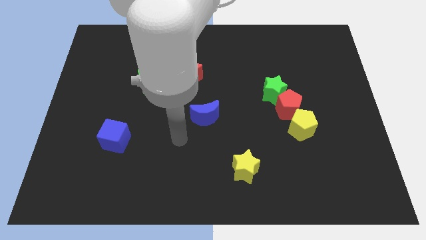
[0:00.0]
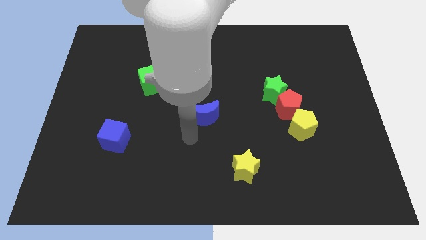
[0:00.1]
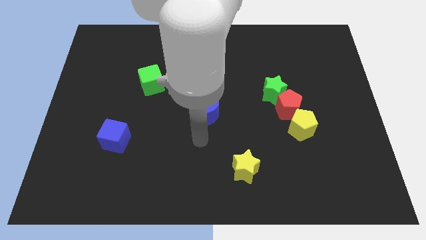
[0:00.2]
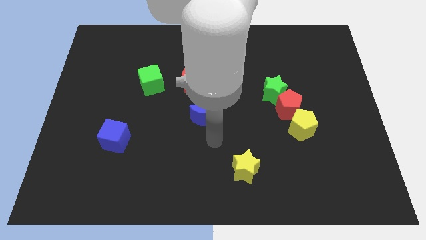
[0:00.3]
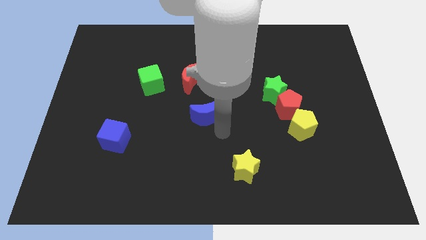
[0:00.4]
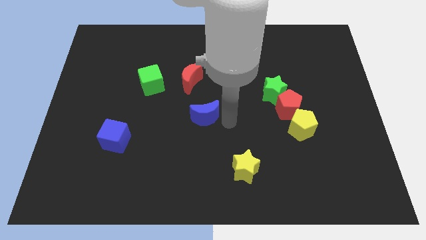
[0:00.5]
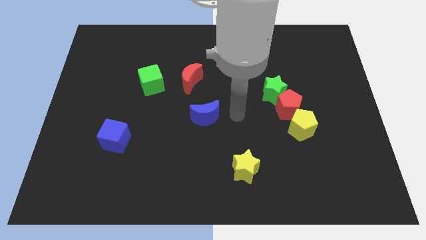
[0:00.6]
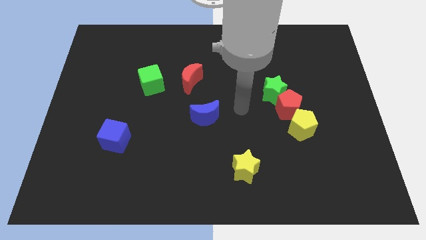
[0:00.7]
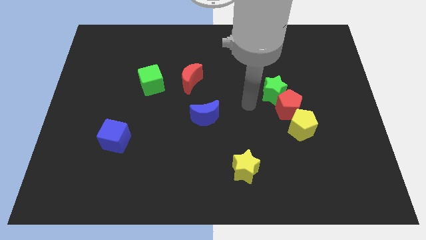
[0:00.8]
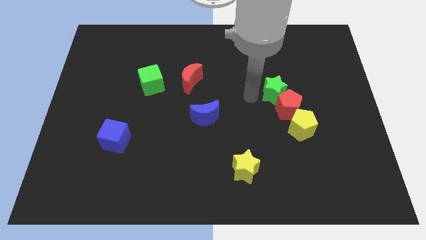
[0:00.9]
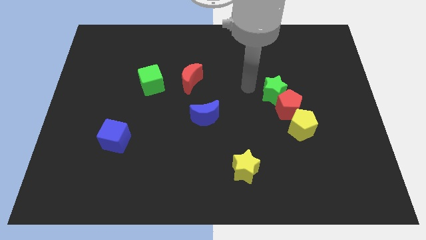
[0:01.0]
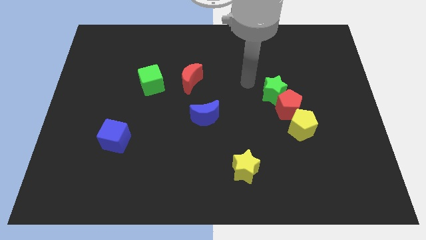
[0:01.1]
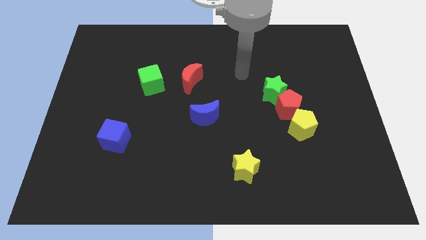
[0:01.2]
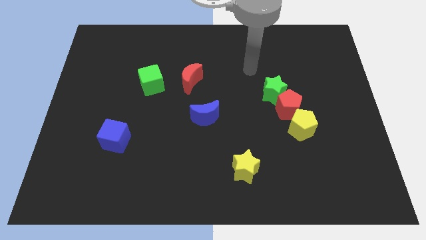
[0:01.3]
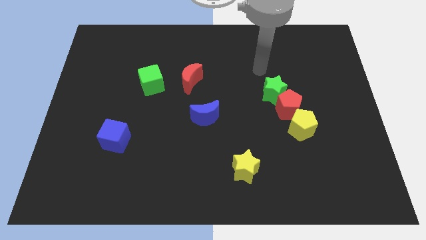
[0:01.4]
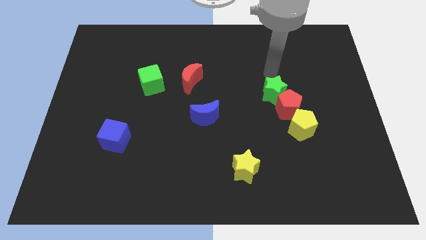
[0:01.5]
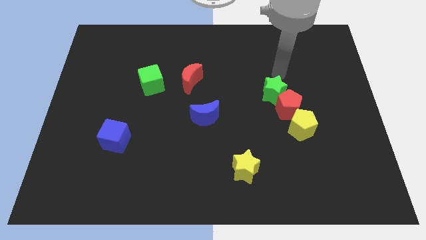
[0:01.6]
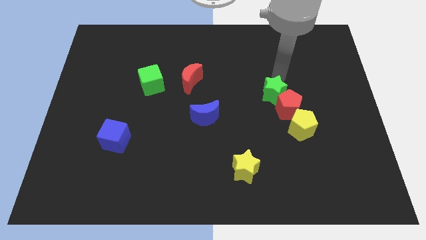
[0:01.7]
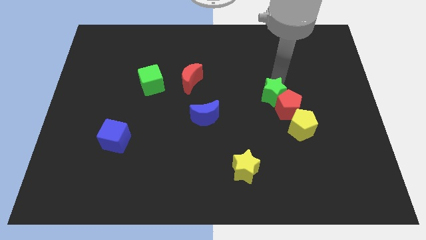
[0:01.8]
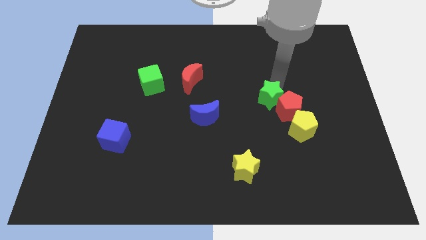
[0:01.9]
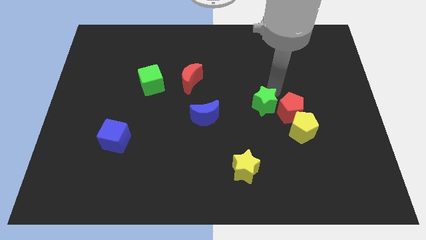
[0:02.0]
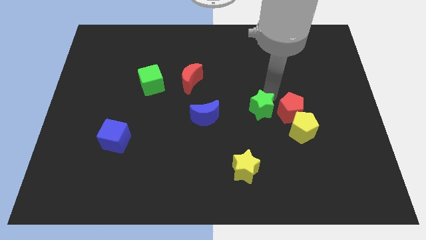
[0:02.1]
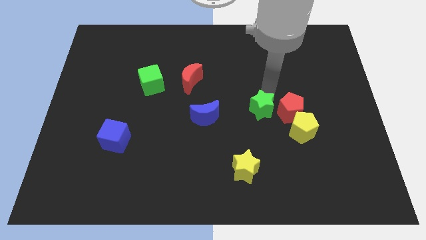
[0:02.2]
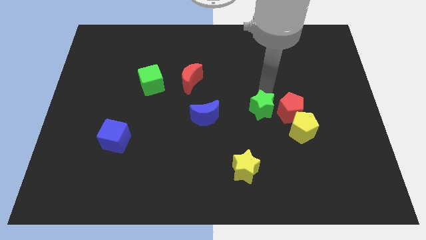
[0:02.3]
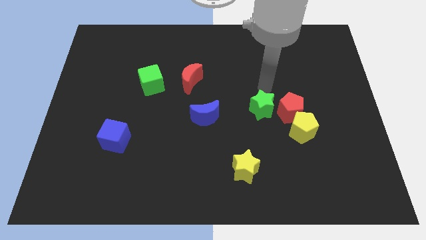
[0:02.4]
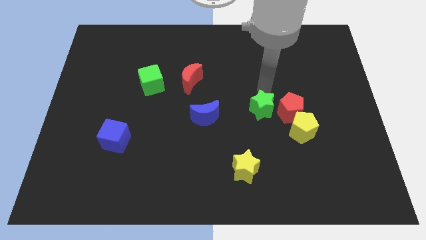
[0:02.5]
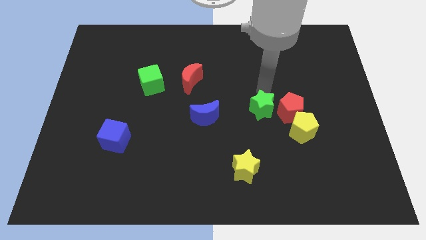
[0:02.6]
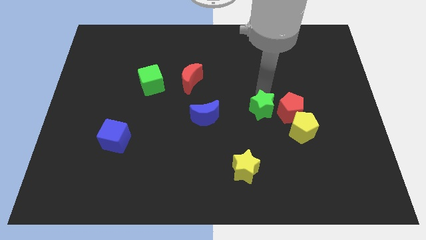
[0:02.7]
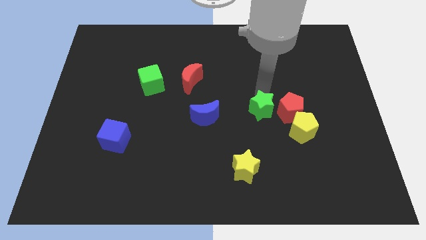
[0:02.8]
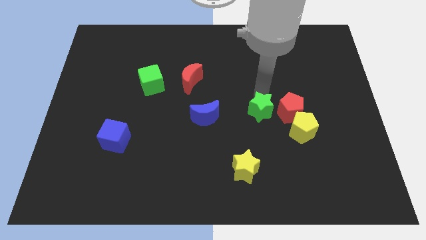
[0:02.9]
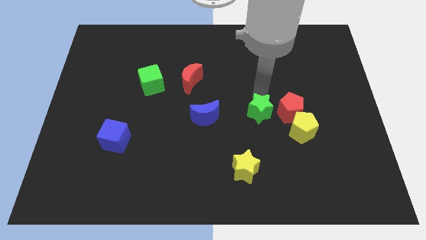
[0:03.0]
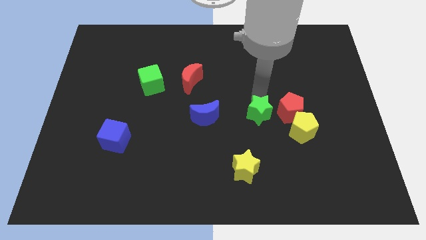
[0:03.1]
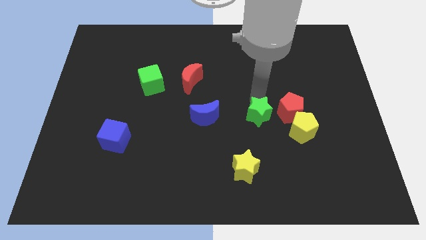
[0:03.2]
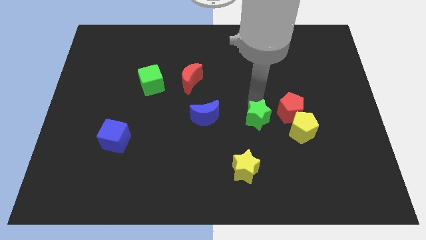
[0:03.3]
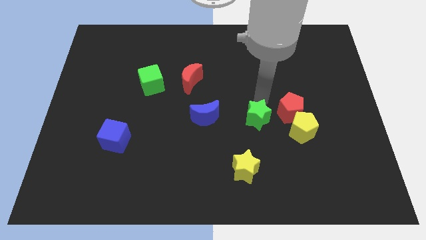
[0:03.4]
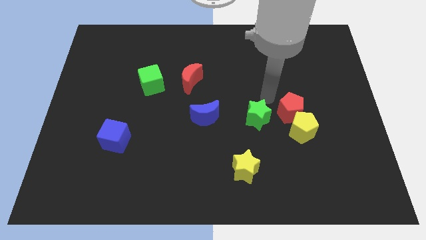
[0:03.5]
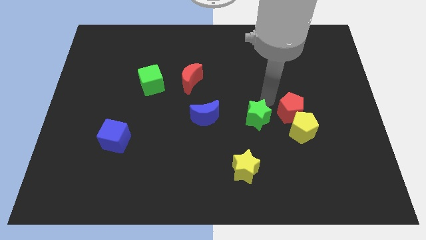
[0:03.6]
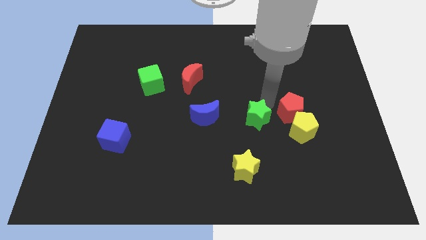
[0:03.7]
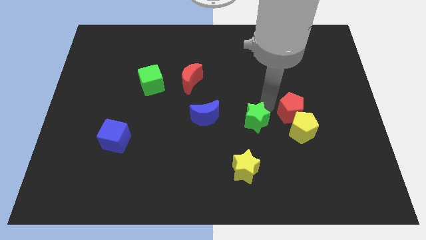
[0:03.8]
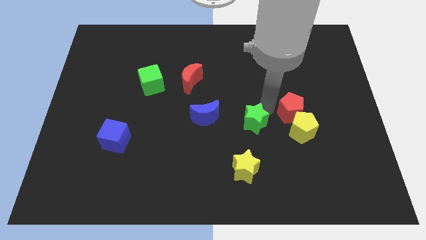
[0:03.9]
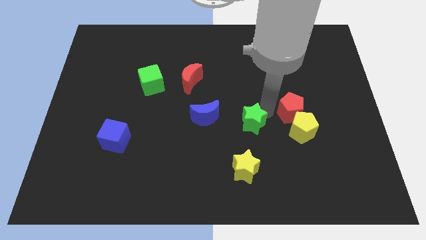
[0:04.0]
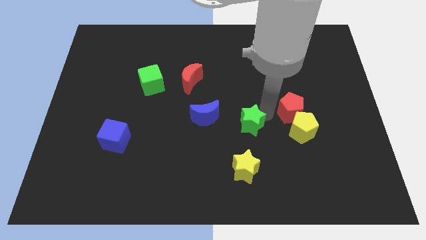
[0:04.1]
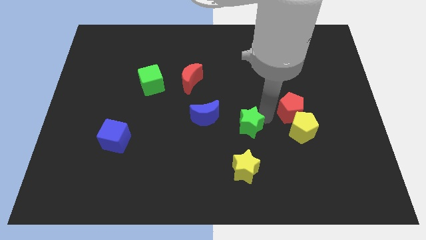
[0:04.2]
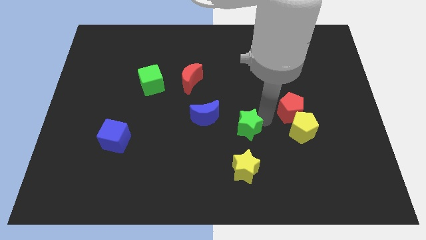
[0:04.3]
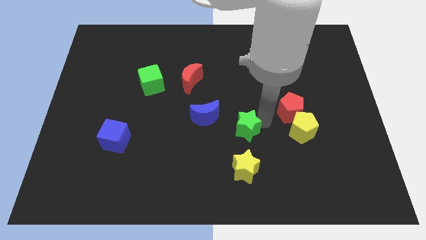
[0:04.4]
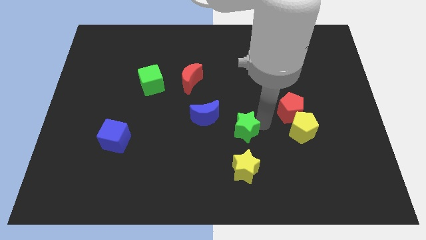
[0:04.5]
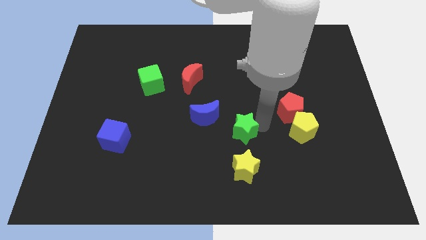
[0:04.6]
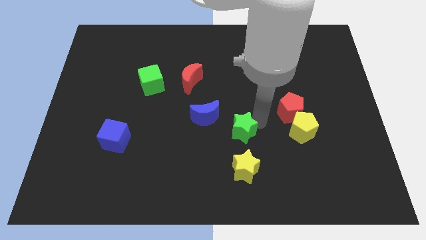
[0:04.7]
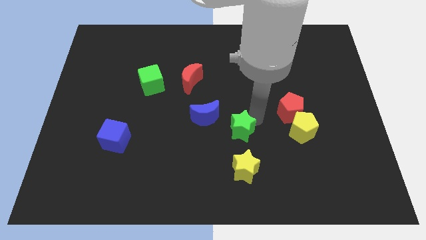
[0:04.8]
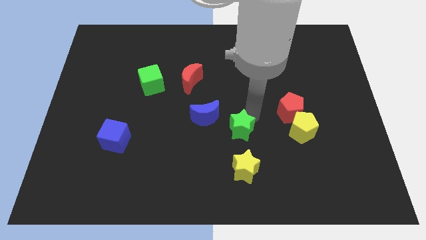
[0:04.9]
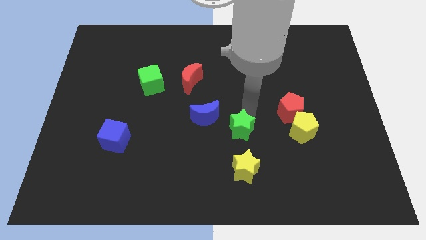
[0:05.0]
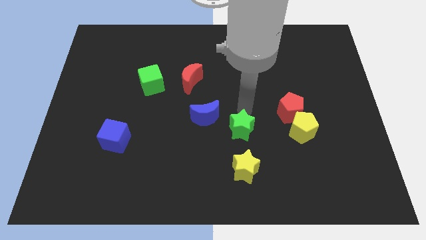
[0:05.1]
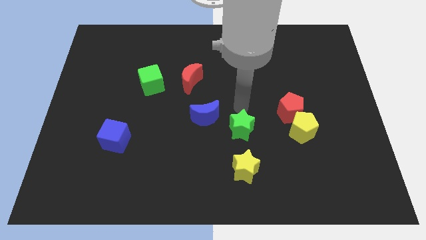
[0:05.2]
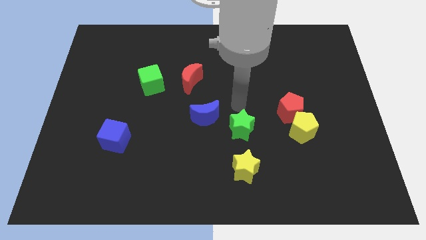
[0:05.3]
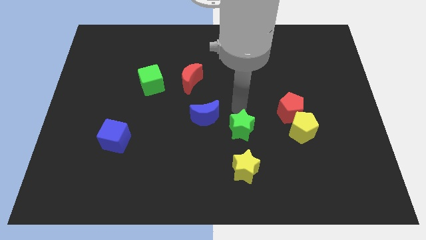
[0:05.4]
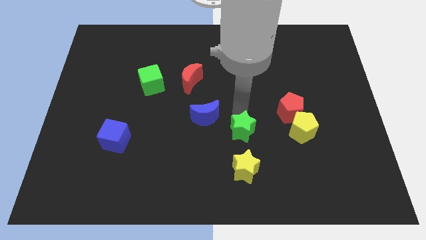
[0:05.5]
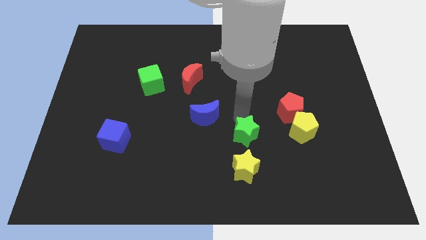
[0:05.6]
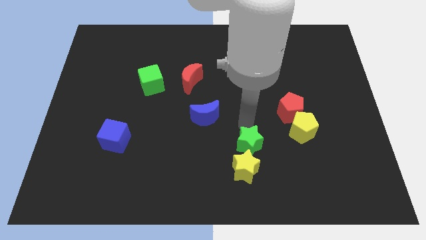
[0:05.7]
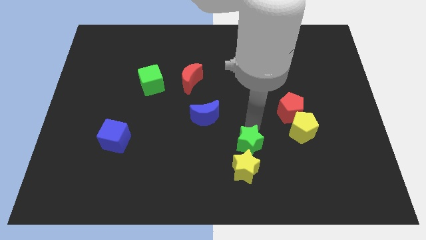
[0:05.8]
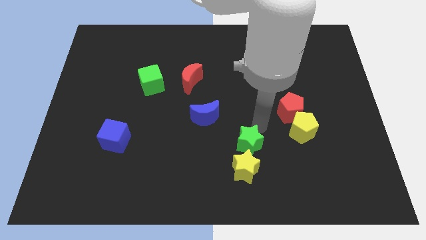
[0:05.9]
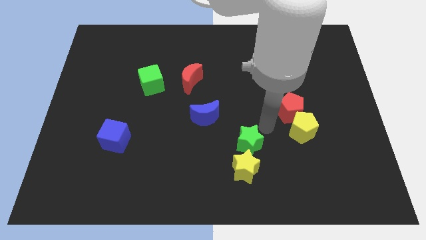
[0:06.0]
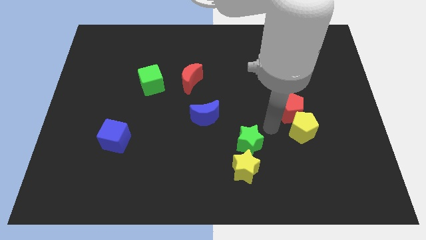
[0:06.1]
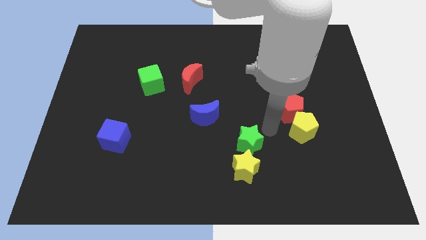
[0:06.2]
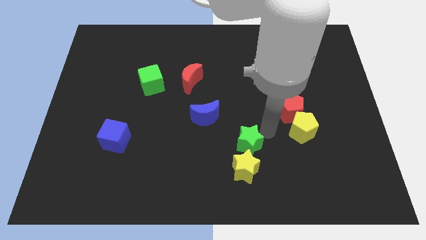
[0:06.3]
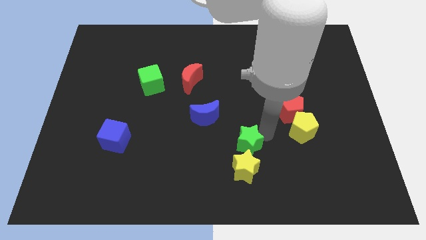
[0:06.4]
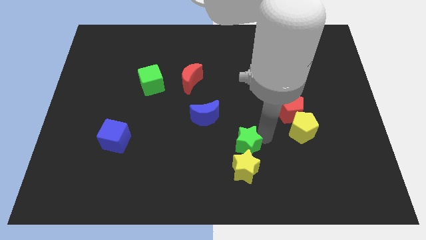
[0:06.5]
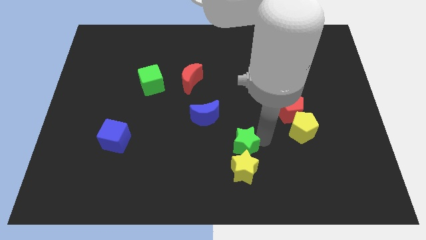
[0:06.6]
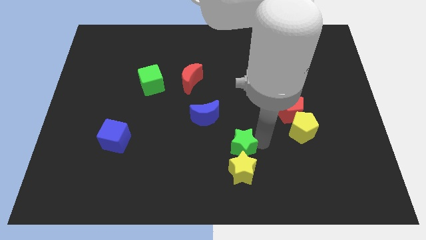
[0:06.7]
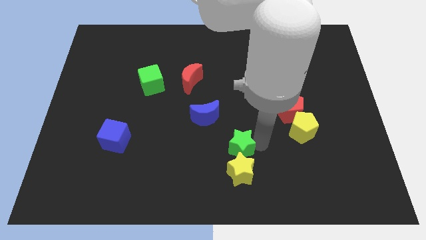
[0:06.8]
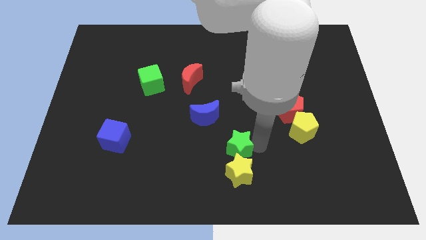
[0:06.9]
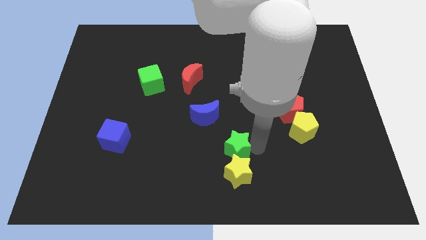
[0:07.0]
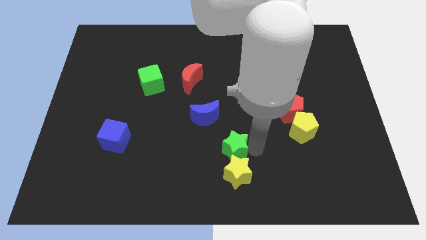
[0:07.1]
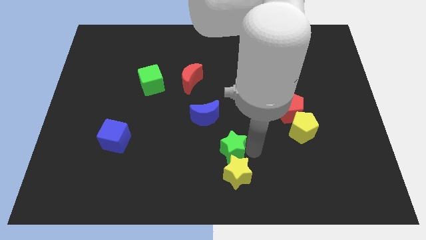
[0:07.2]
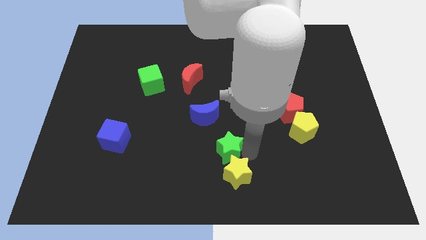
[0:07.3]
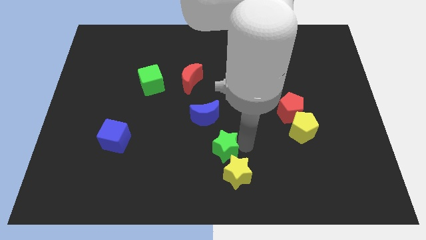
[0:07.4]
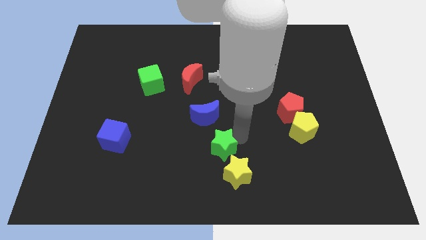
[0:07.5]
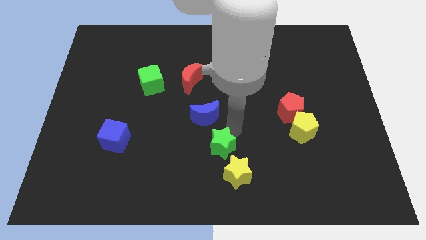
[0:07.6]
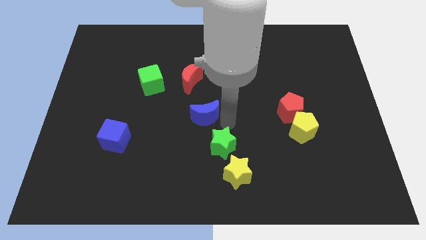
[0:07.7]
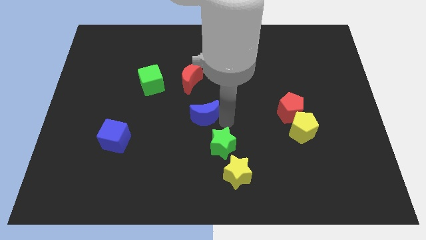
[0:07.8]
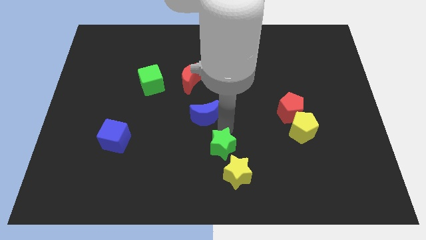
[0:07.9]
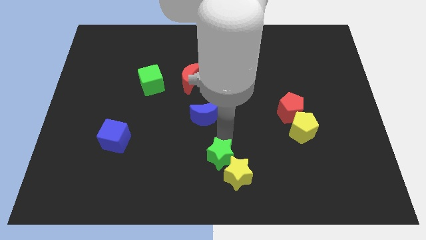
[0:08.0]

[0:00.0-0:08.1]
put the green star to the bottom side
